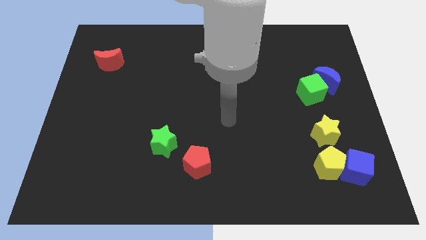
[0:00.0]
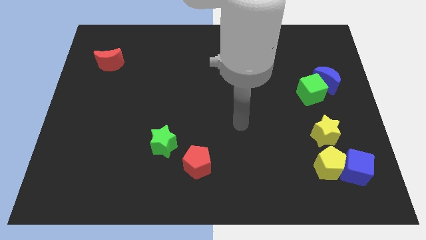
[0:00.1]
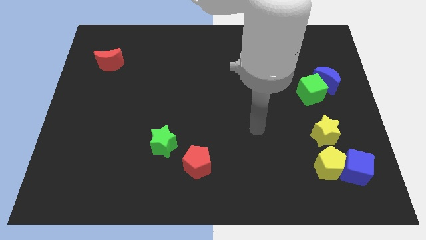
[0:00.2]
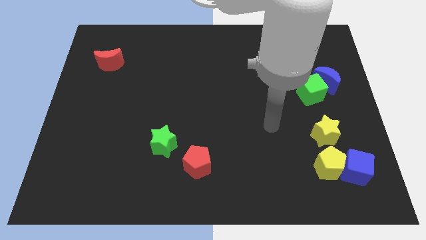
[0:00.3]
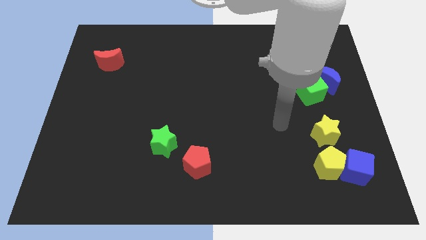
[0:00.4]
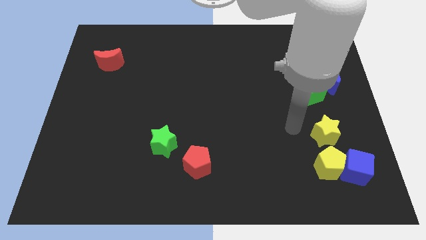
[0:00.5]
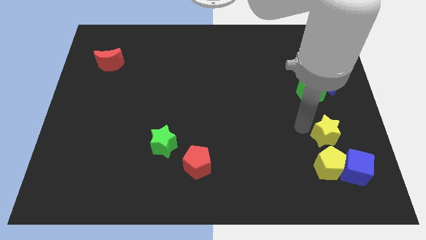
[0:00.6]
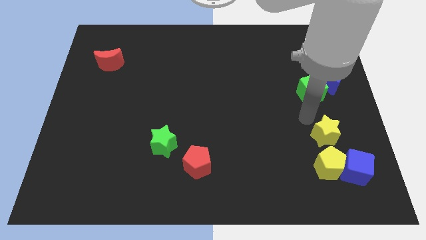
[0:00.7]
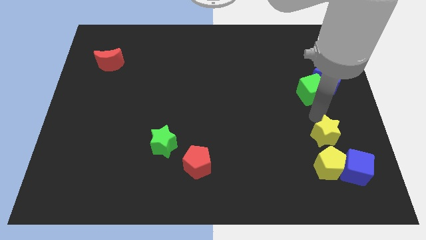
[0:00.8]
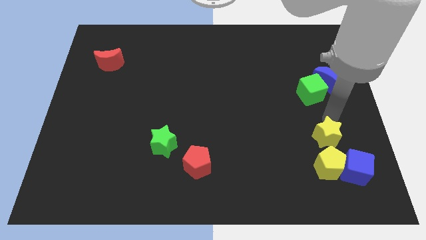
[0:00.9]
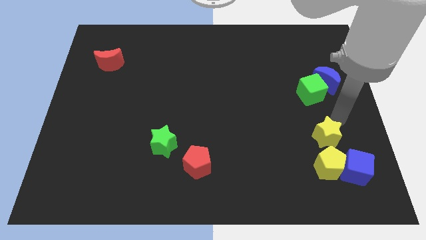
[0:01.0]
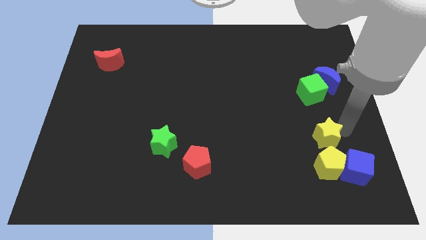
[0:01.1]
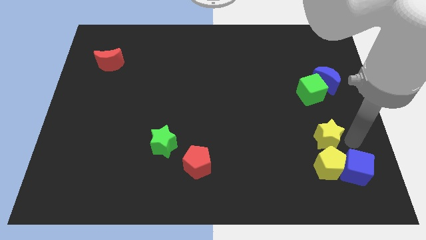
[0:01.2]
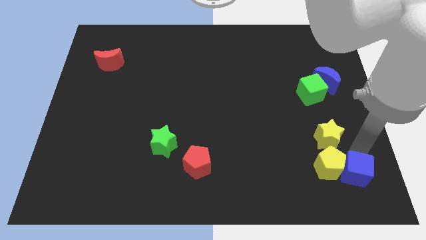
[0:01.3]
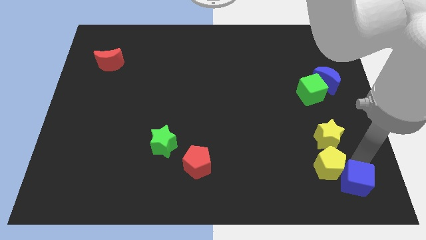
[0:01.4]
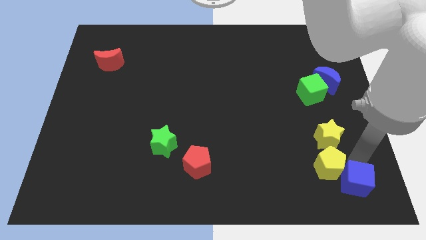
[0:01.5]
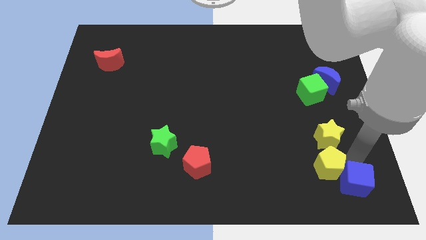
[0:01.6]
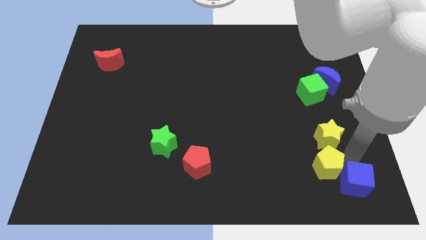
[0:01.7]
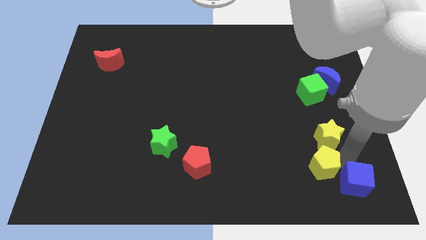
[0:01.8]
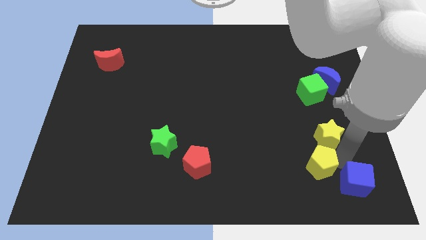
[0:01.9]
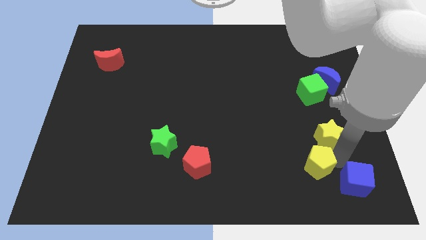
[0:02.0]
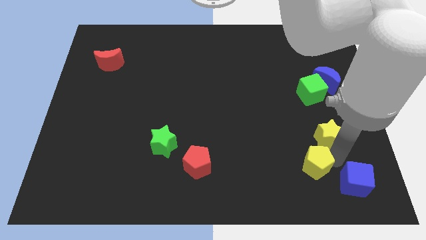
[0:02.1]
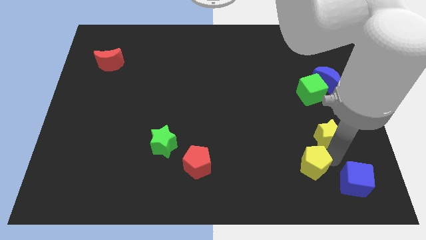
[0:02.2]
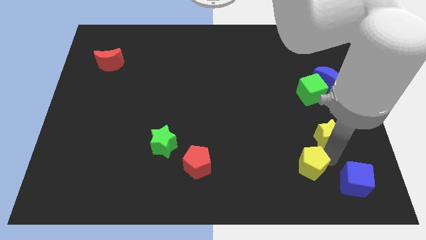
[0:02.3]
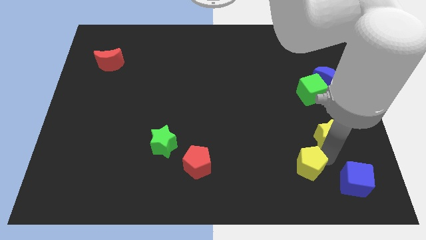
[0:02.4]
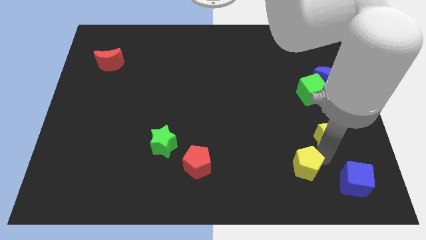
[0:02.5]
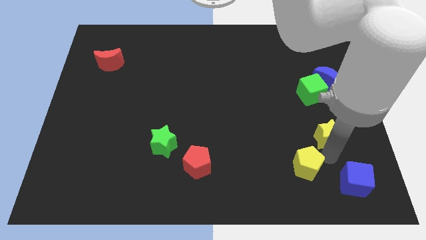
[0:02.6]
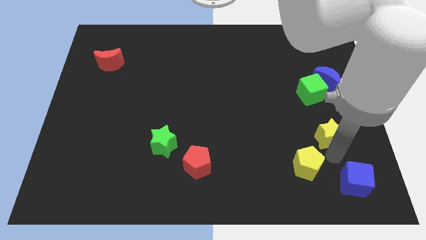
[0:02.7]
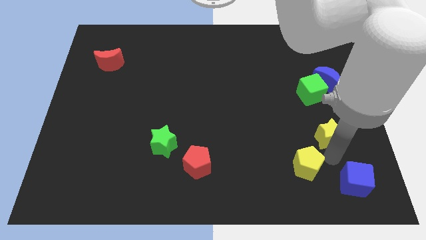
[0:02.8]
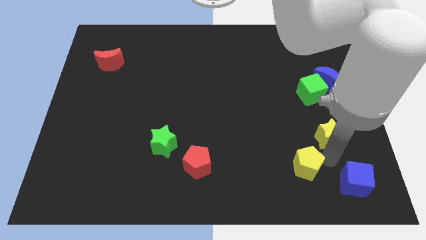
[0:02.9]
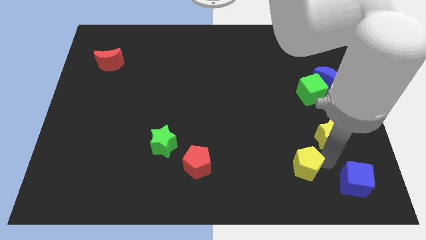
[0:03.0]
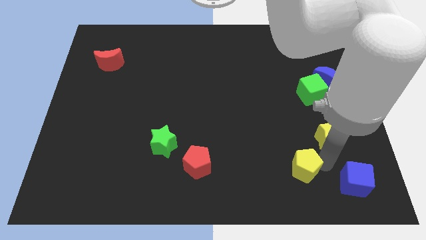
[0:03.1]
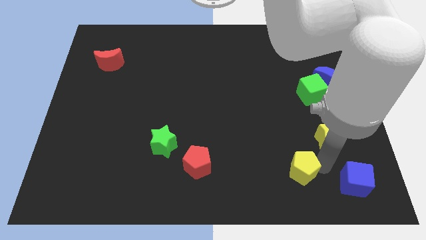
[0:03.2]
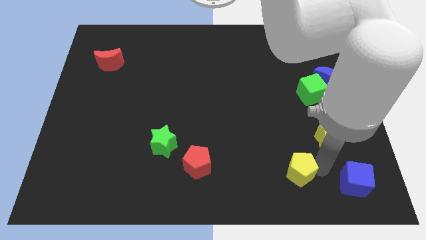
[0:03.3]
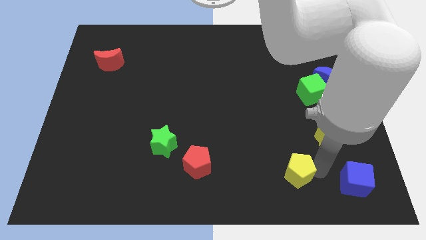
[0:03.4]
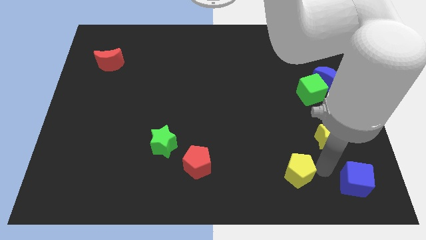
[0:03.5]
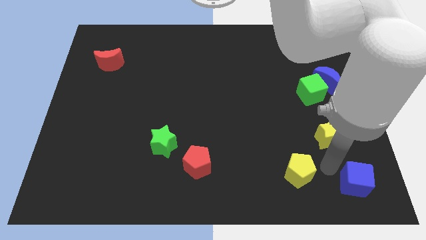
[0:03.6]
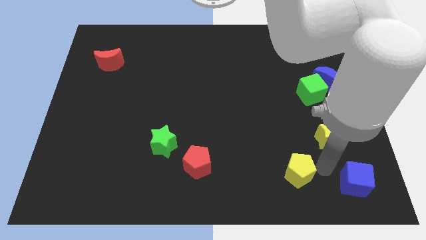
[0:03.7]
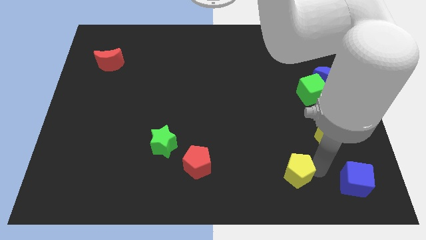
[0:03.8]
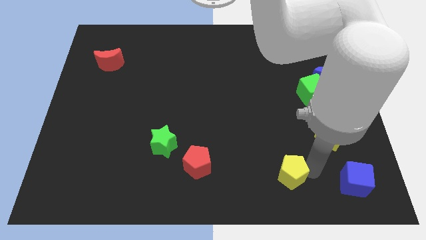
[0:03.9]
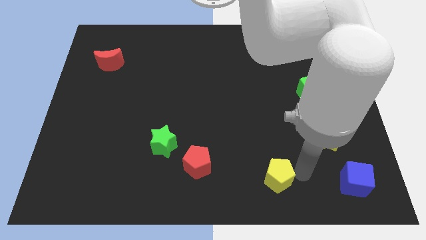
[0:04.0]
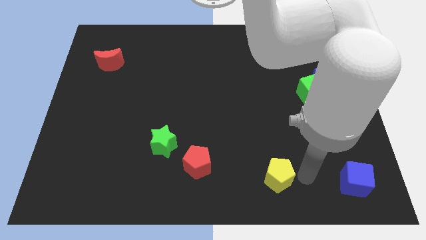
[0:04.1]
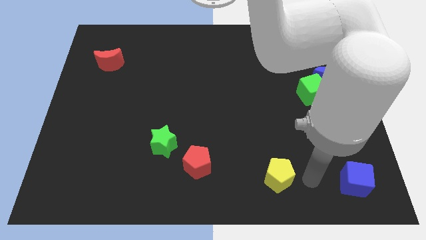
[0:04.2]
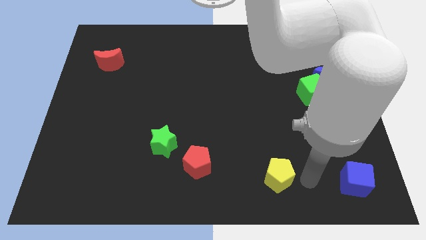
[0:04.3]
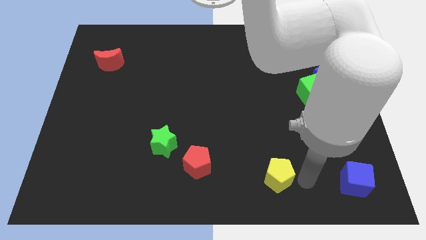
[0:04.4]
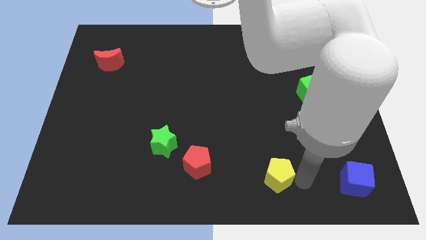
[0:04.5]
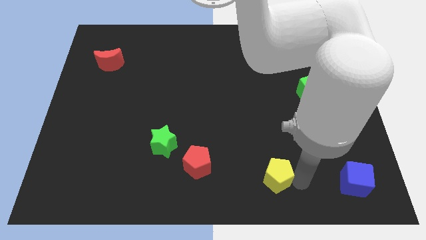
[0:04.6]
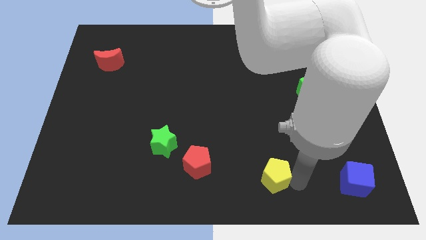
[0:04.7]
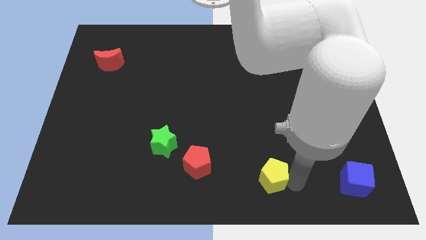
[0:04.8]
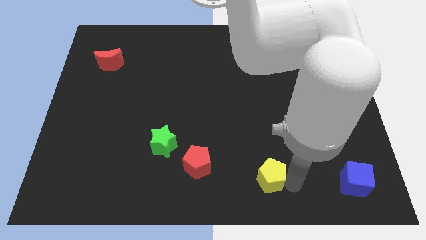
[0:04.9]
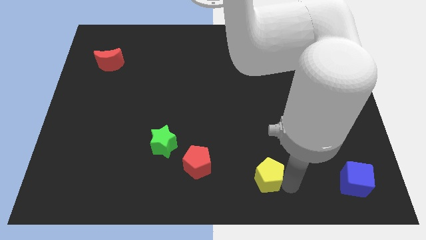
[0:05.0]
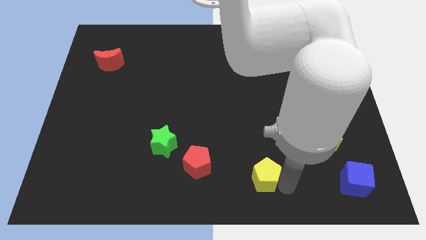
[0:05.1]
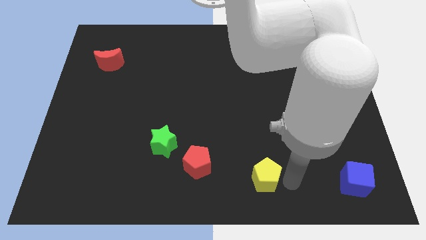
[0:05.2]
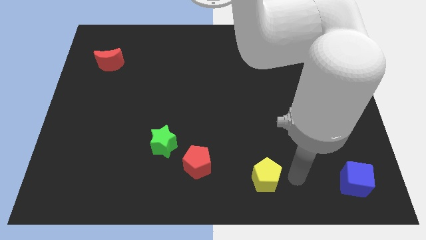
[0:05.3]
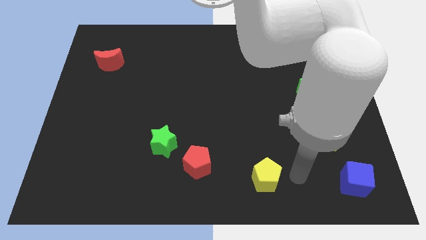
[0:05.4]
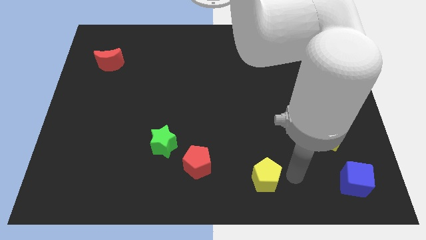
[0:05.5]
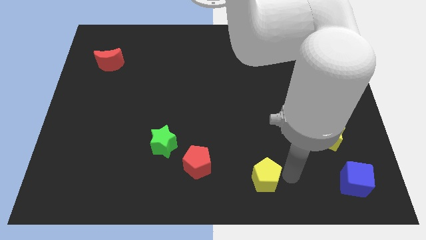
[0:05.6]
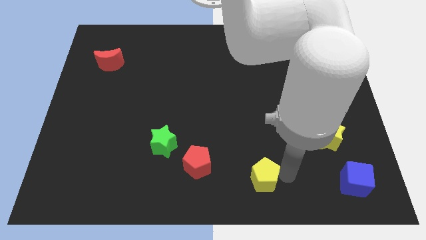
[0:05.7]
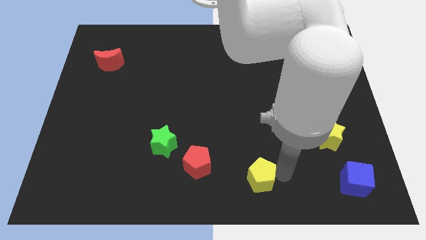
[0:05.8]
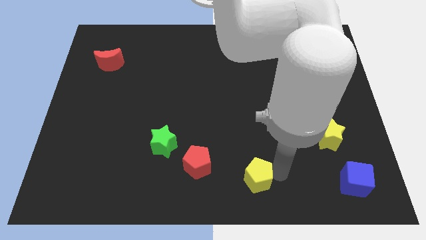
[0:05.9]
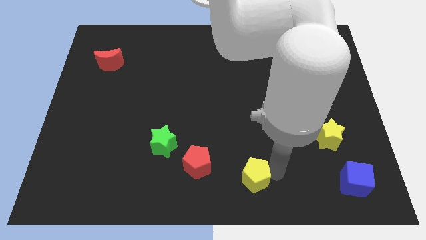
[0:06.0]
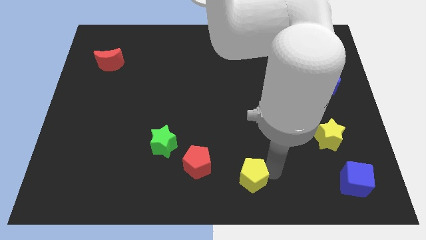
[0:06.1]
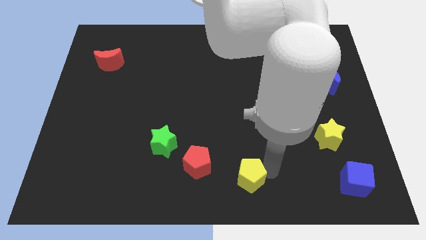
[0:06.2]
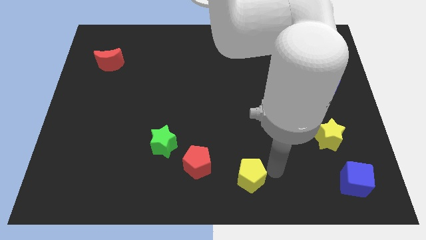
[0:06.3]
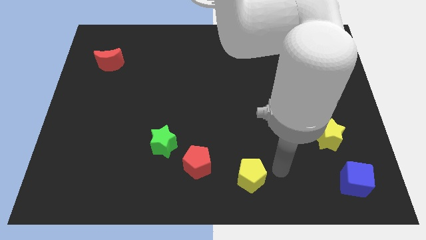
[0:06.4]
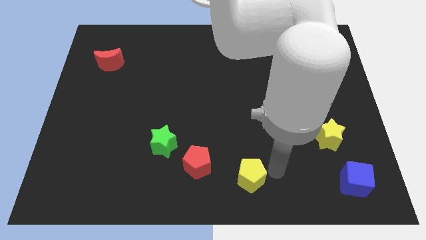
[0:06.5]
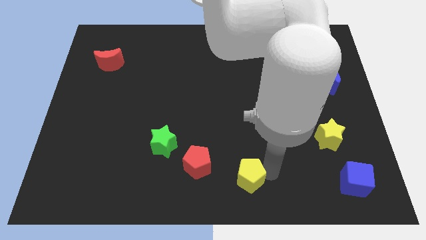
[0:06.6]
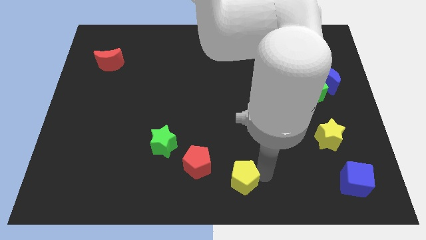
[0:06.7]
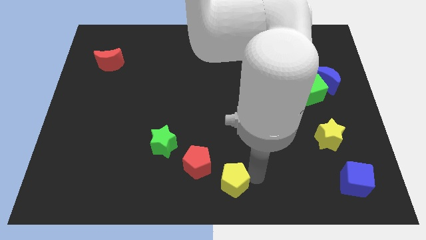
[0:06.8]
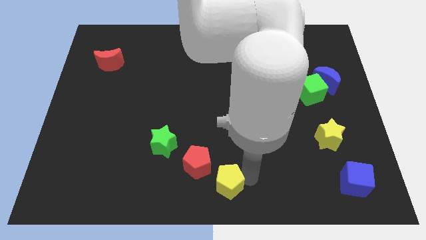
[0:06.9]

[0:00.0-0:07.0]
move the yellow pentagon left

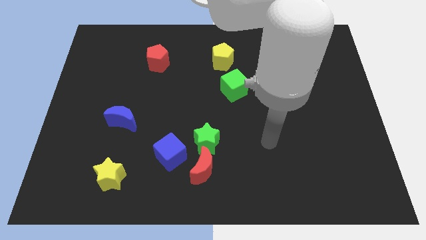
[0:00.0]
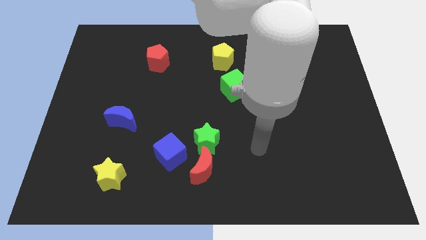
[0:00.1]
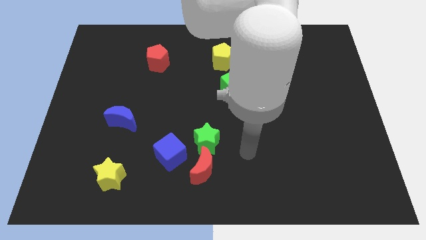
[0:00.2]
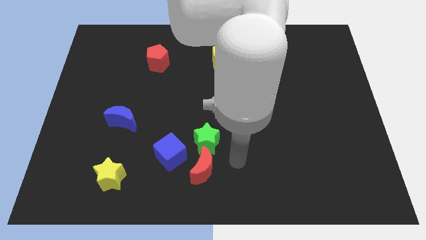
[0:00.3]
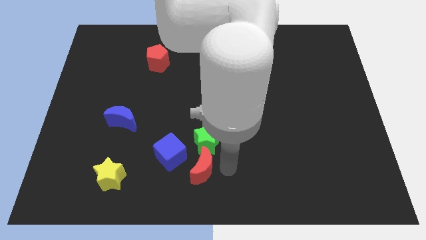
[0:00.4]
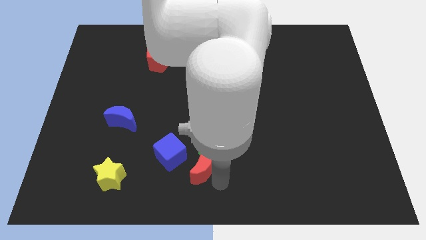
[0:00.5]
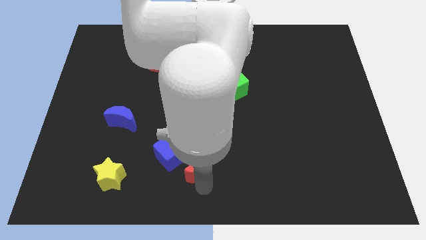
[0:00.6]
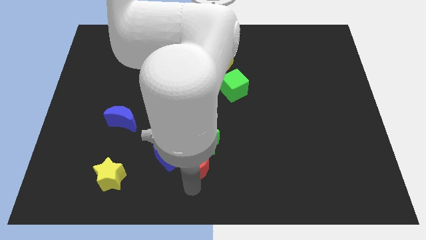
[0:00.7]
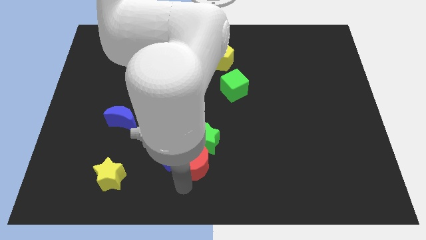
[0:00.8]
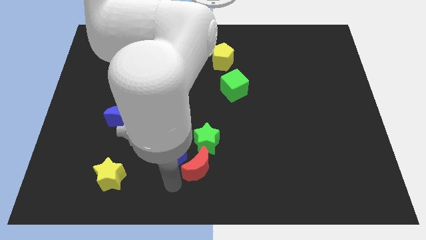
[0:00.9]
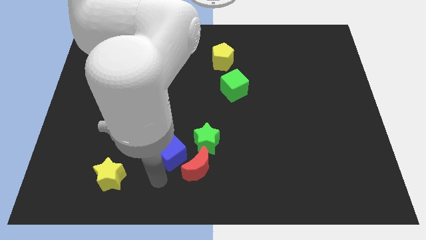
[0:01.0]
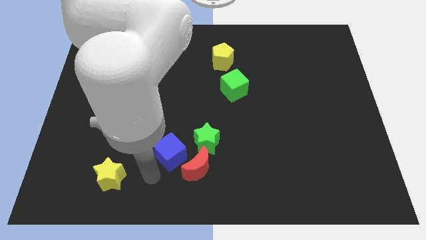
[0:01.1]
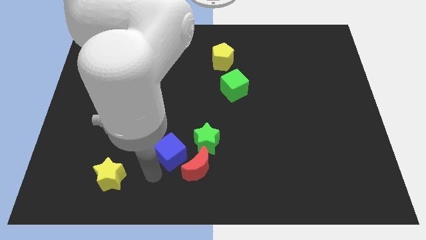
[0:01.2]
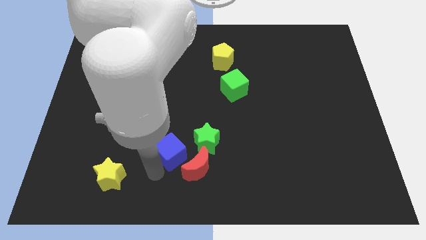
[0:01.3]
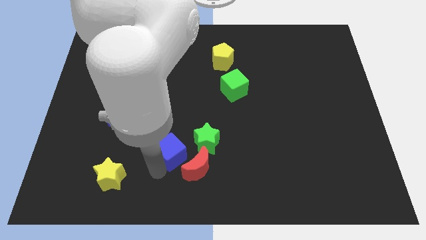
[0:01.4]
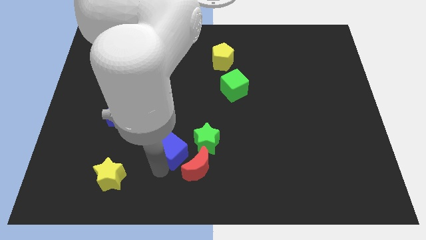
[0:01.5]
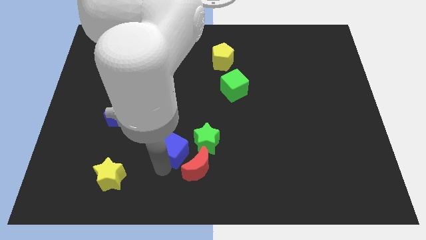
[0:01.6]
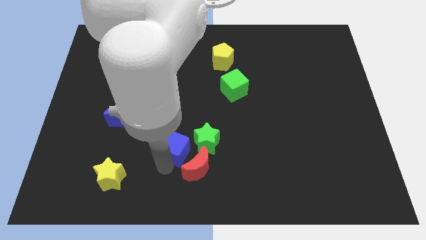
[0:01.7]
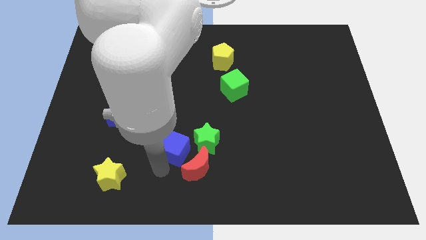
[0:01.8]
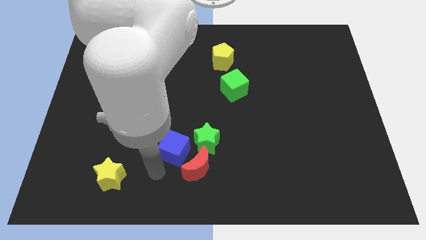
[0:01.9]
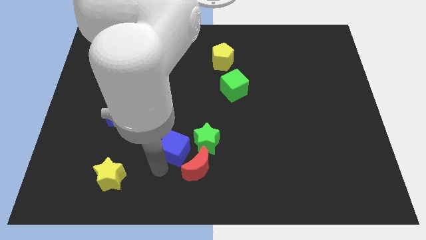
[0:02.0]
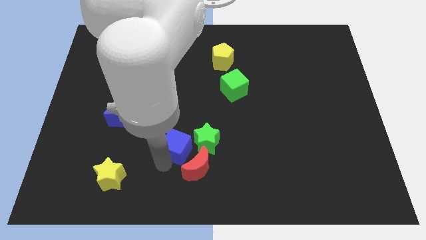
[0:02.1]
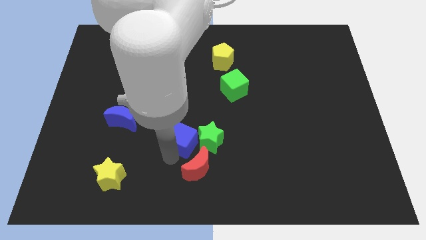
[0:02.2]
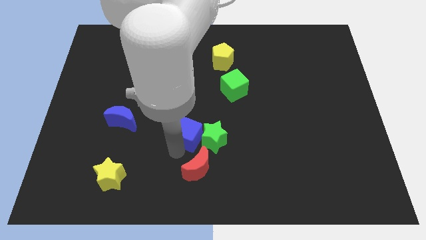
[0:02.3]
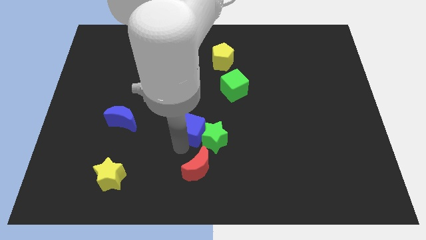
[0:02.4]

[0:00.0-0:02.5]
move the blue cube upwards and right diagonally a little bit
